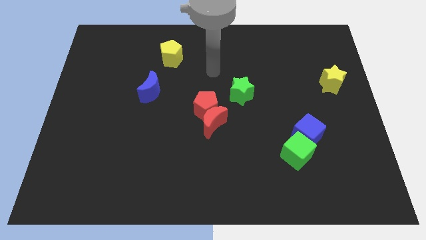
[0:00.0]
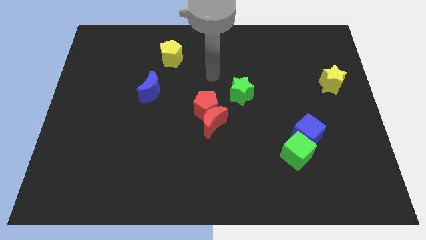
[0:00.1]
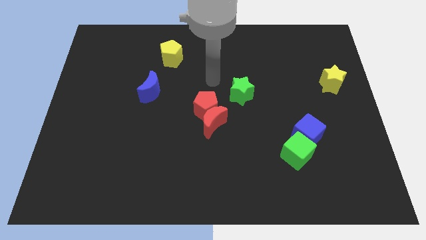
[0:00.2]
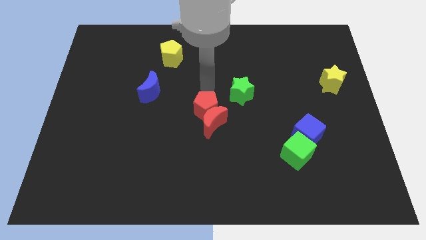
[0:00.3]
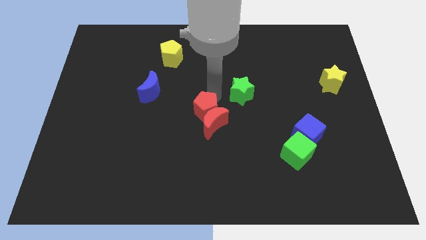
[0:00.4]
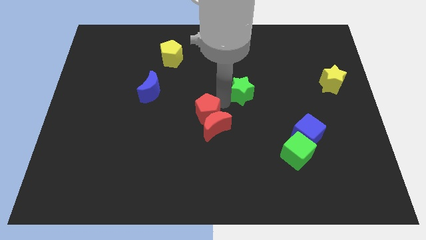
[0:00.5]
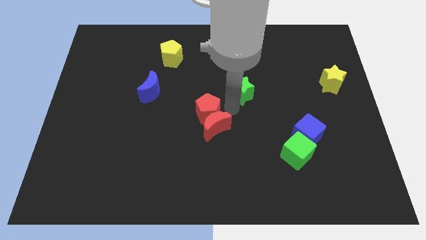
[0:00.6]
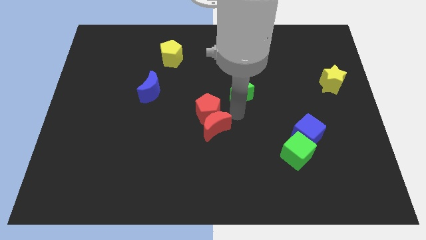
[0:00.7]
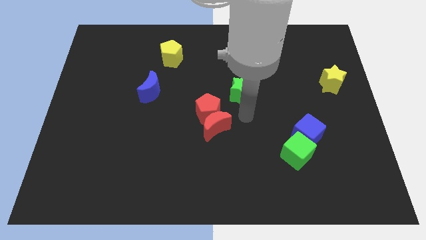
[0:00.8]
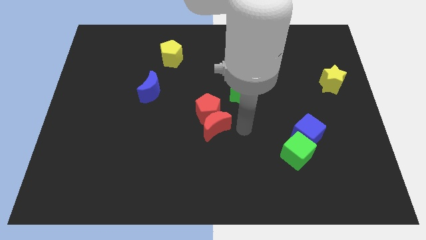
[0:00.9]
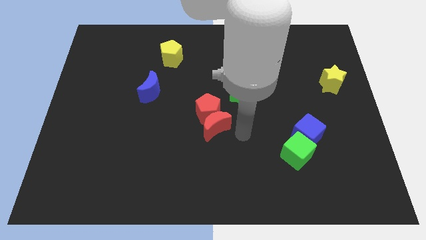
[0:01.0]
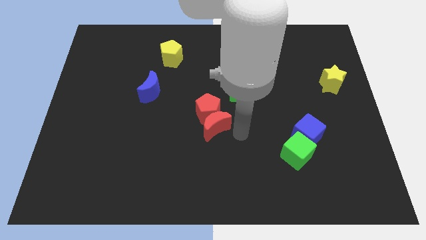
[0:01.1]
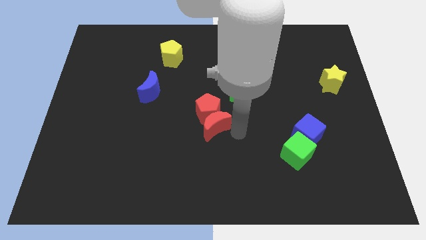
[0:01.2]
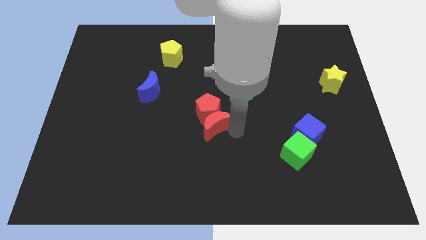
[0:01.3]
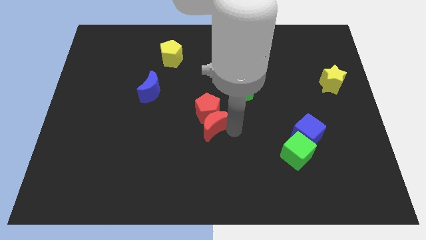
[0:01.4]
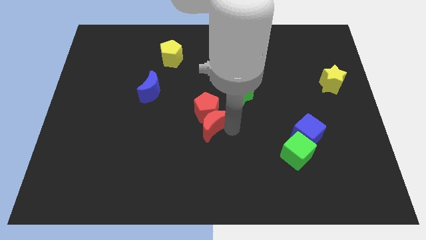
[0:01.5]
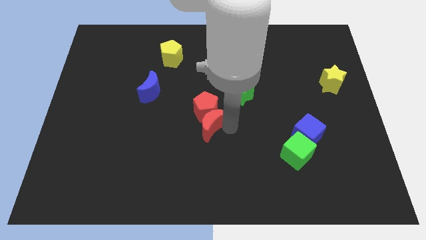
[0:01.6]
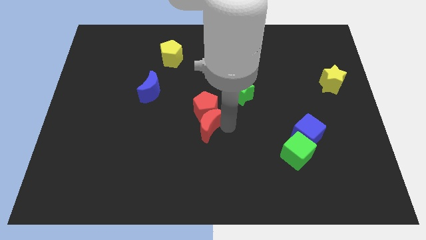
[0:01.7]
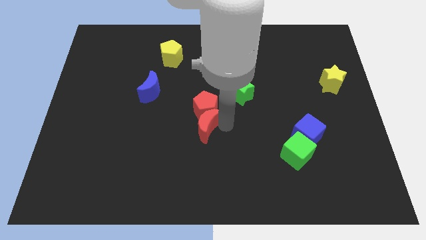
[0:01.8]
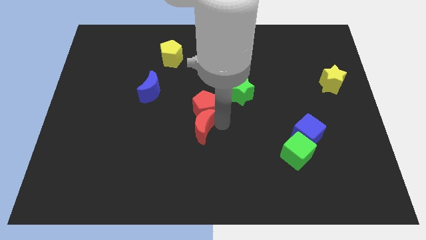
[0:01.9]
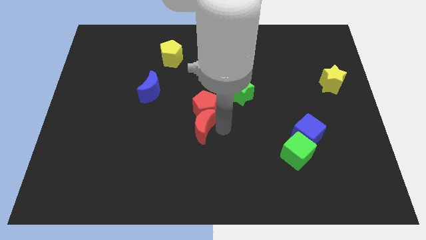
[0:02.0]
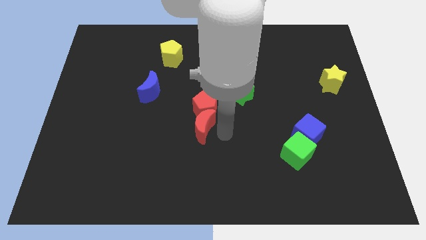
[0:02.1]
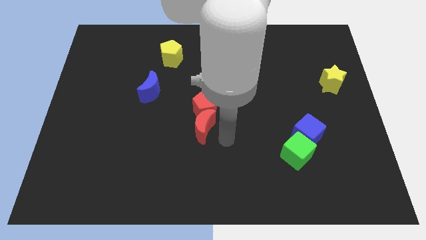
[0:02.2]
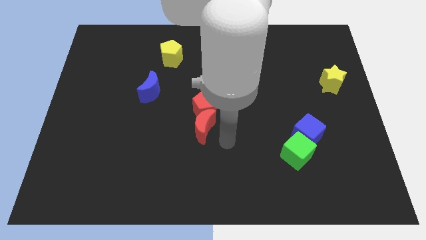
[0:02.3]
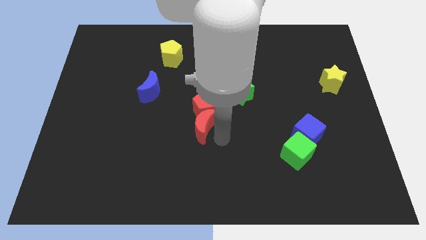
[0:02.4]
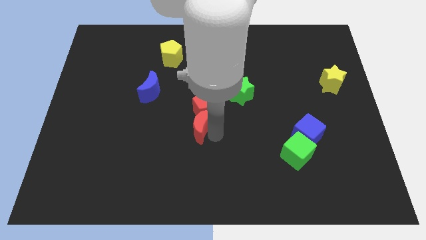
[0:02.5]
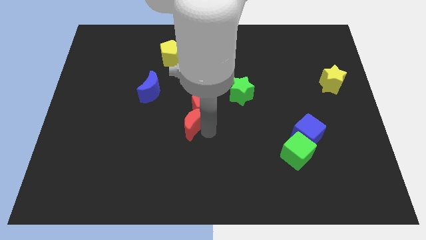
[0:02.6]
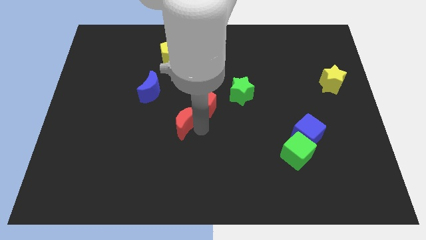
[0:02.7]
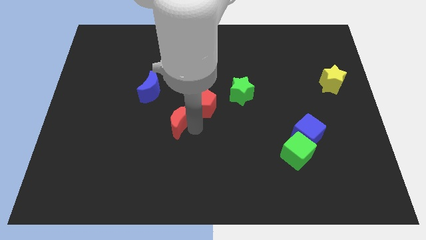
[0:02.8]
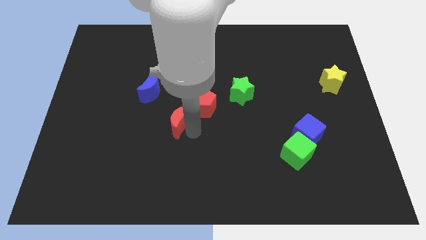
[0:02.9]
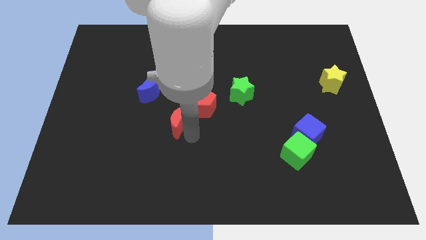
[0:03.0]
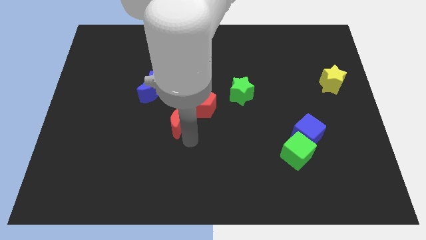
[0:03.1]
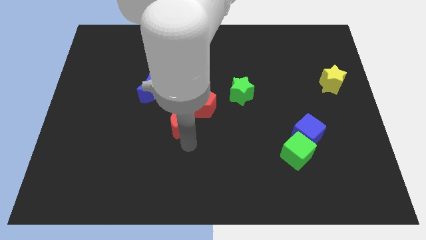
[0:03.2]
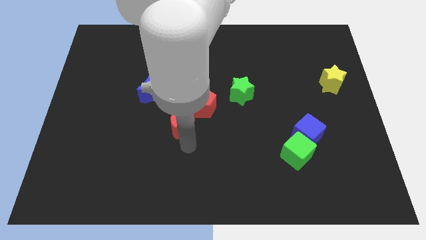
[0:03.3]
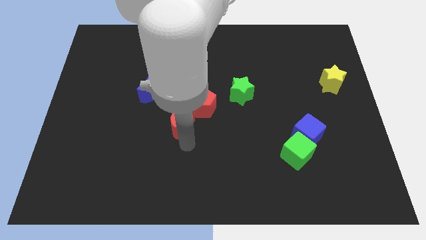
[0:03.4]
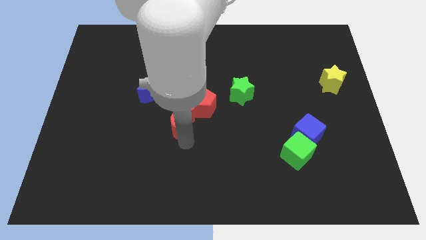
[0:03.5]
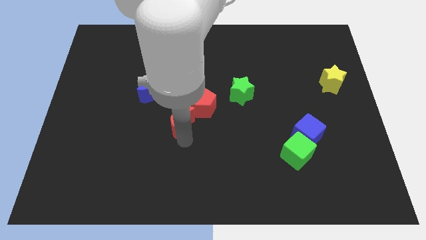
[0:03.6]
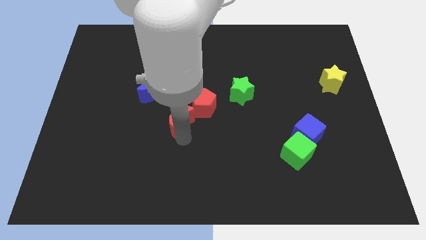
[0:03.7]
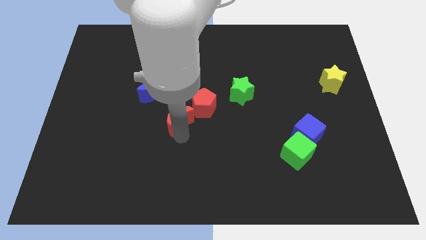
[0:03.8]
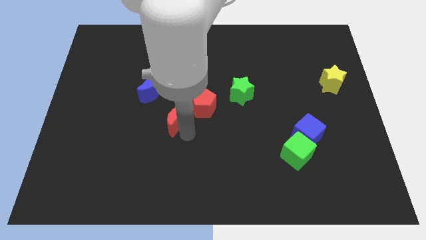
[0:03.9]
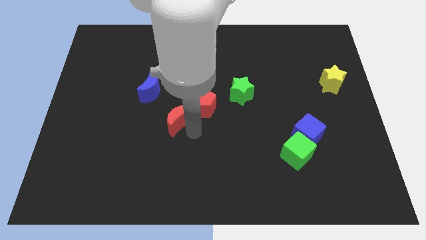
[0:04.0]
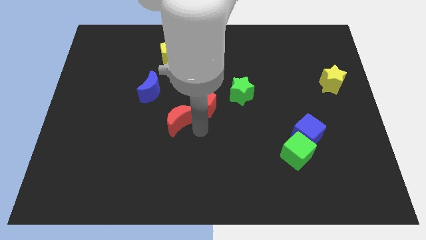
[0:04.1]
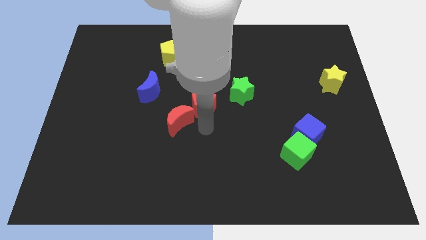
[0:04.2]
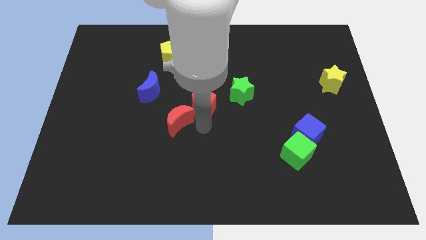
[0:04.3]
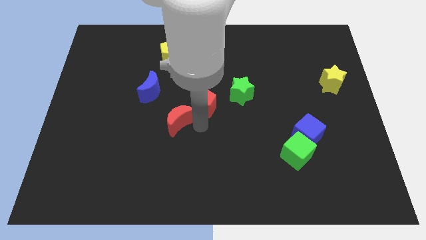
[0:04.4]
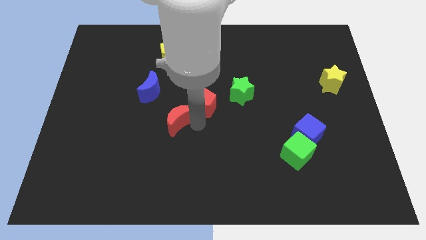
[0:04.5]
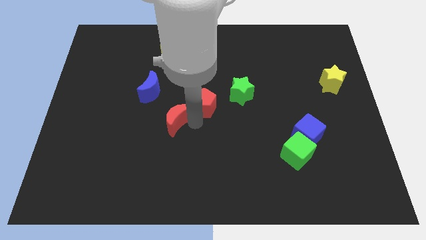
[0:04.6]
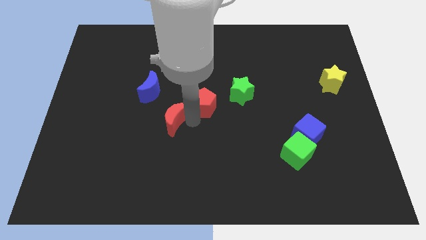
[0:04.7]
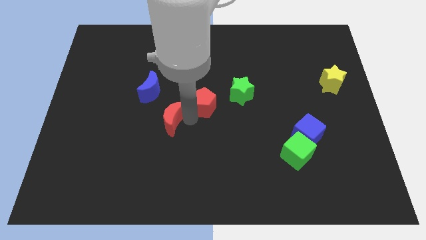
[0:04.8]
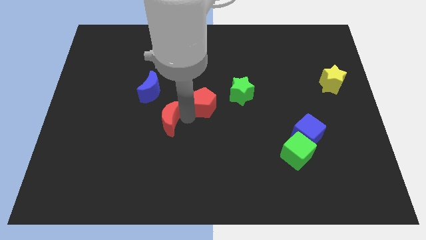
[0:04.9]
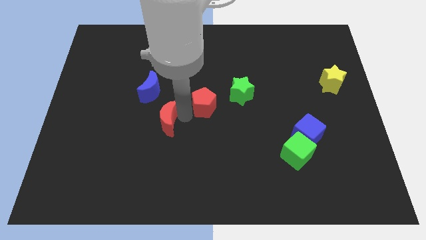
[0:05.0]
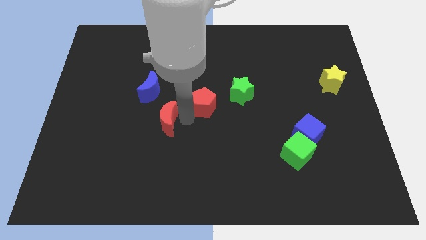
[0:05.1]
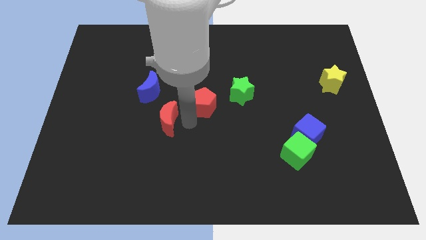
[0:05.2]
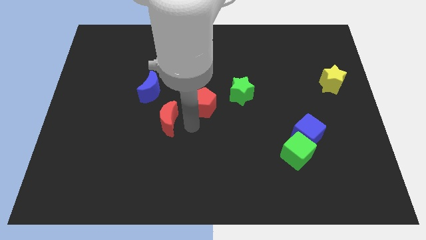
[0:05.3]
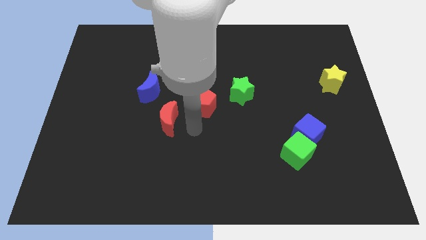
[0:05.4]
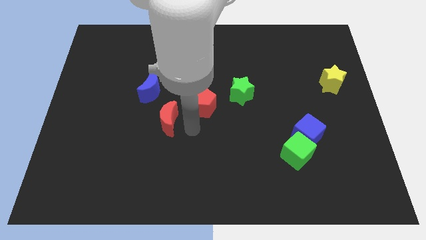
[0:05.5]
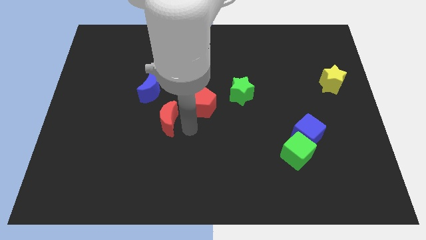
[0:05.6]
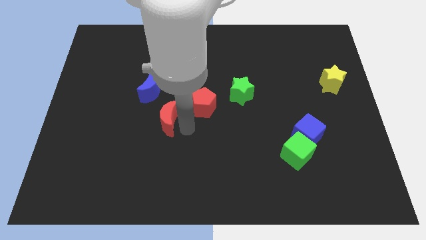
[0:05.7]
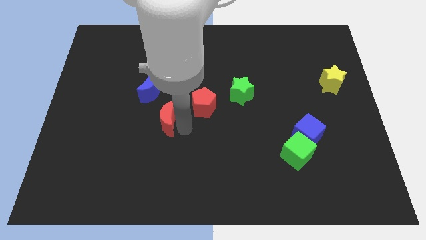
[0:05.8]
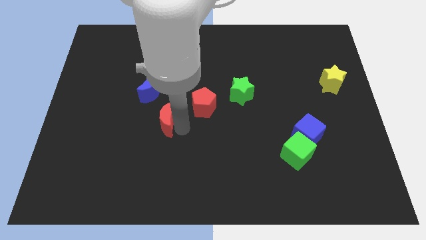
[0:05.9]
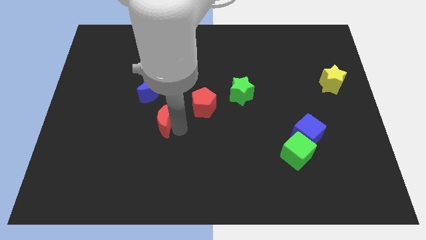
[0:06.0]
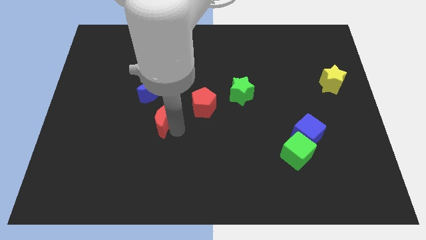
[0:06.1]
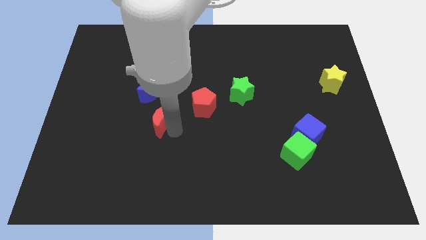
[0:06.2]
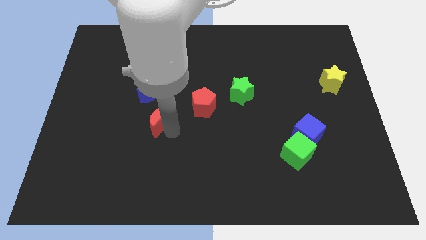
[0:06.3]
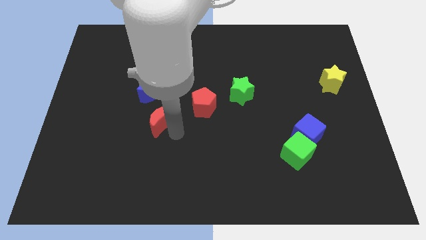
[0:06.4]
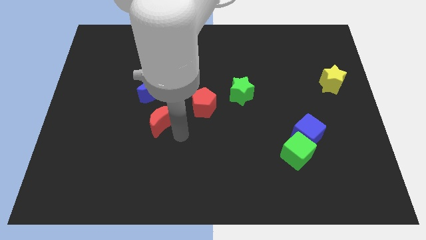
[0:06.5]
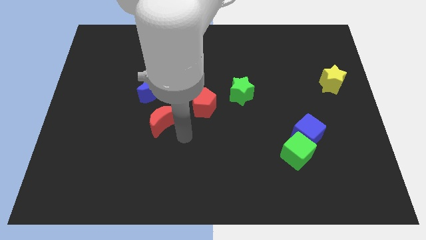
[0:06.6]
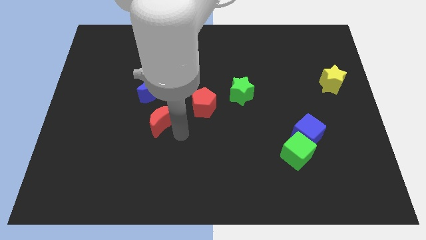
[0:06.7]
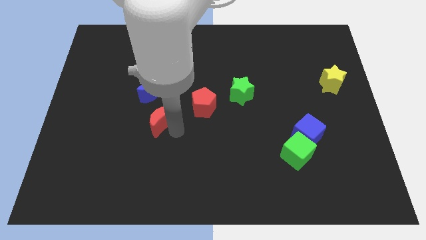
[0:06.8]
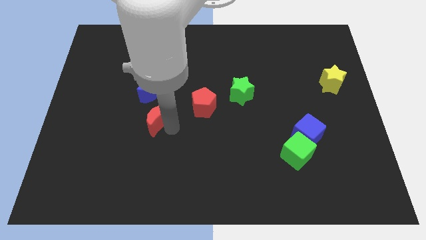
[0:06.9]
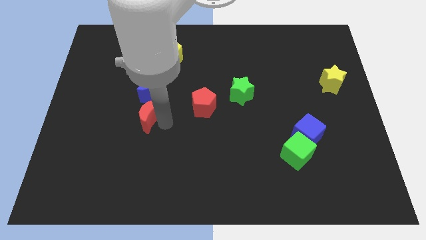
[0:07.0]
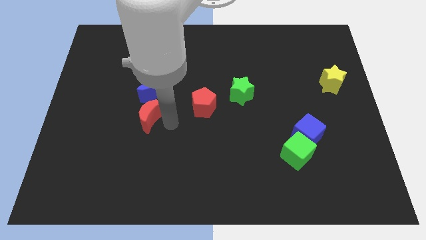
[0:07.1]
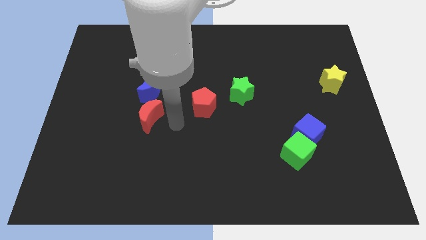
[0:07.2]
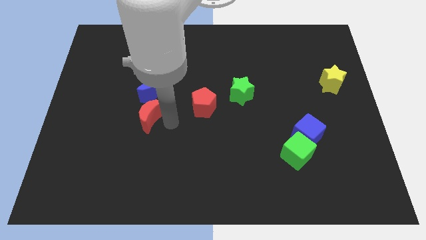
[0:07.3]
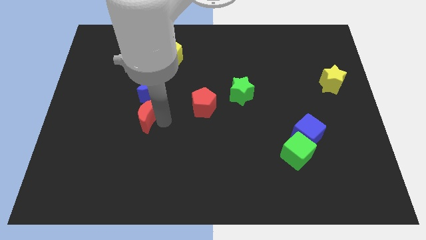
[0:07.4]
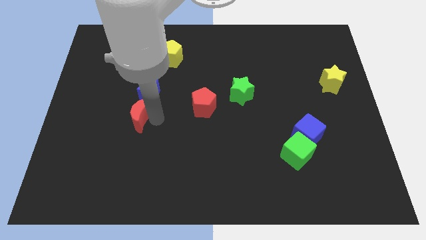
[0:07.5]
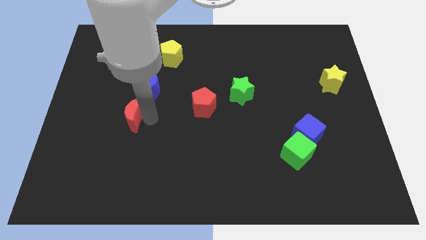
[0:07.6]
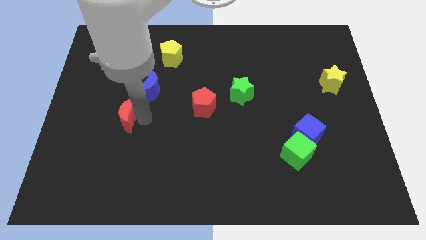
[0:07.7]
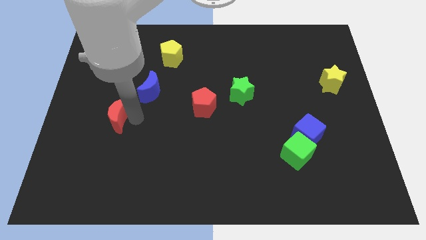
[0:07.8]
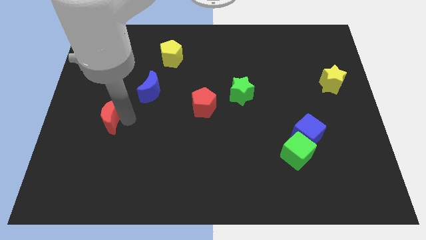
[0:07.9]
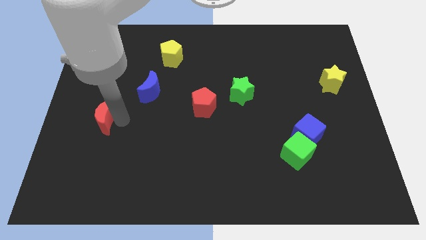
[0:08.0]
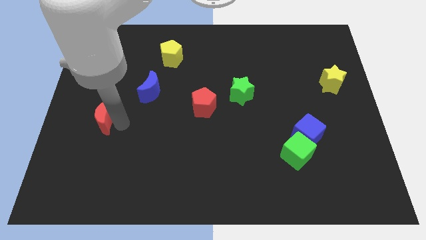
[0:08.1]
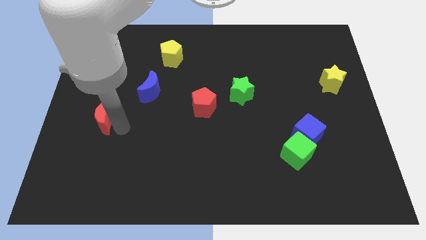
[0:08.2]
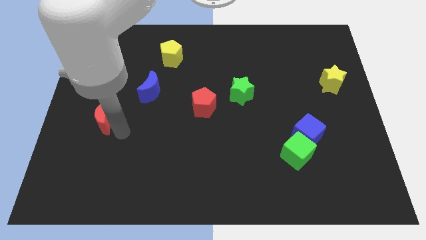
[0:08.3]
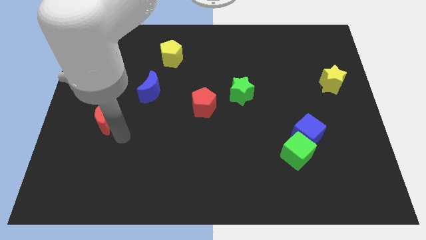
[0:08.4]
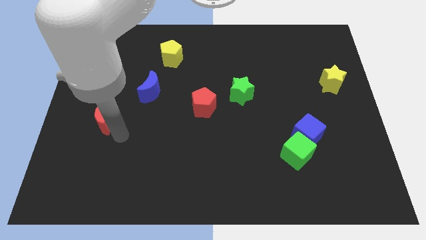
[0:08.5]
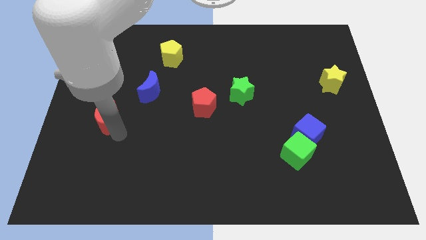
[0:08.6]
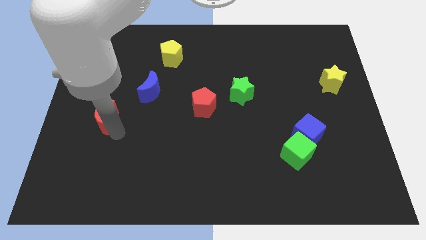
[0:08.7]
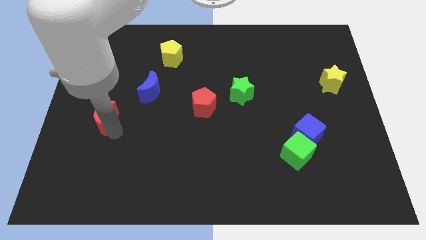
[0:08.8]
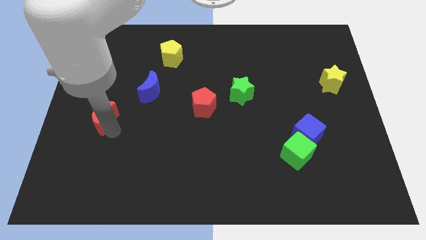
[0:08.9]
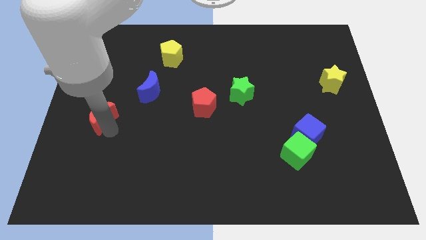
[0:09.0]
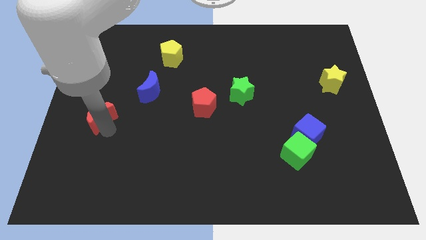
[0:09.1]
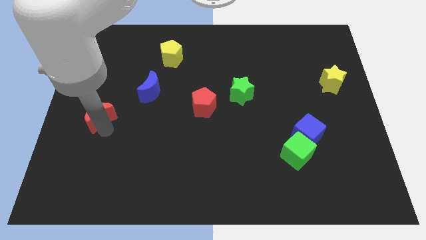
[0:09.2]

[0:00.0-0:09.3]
move the red moon to the left side
